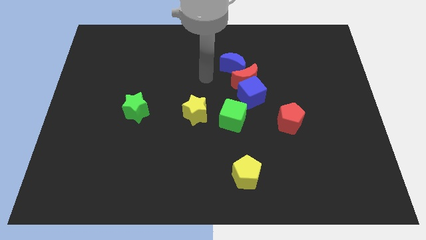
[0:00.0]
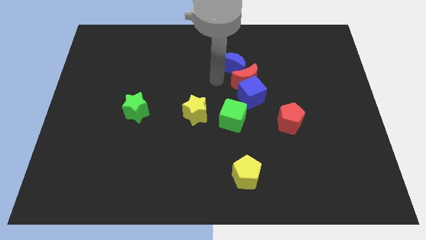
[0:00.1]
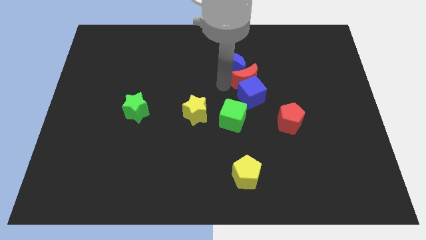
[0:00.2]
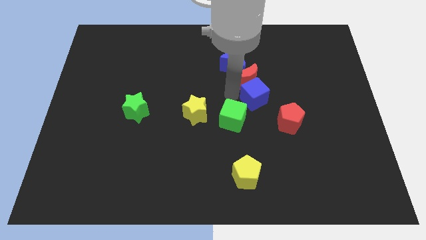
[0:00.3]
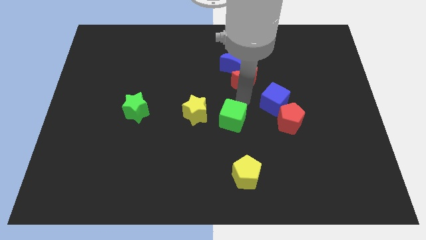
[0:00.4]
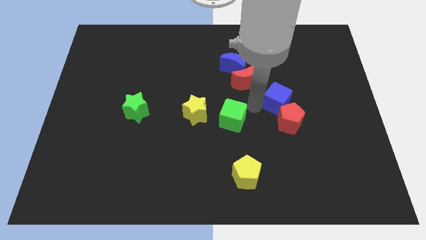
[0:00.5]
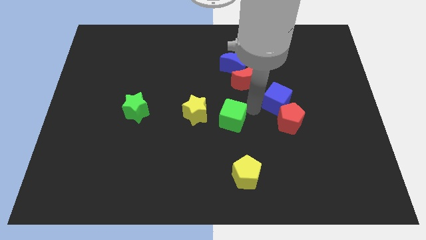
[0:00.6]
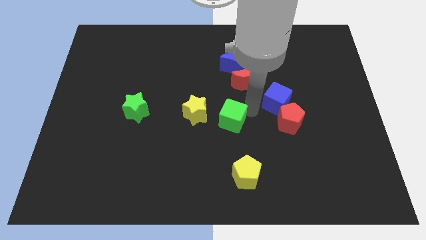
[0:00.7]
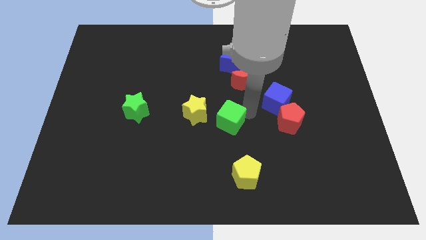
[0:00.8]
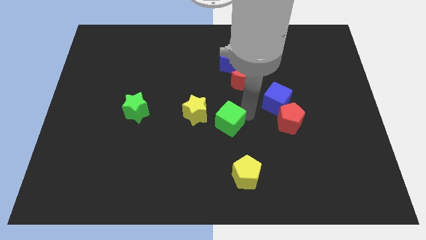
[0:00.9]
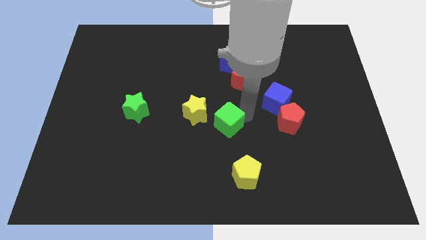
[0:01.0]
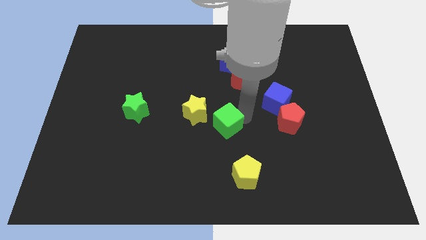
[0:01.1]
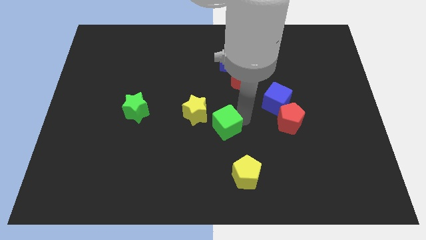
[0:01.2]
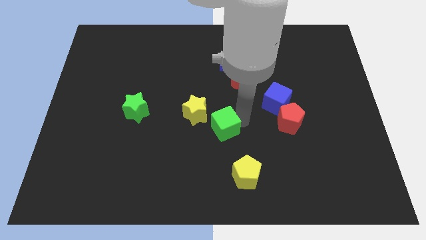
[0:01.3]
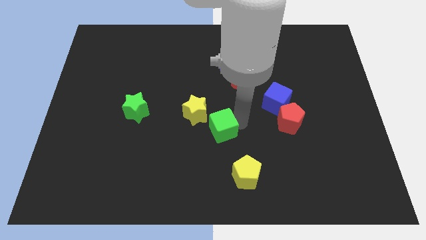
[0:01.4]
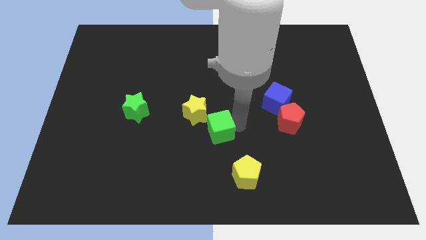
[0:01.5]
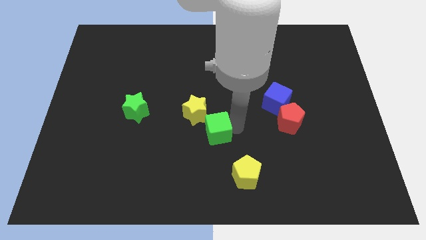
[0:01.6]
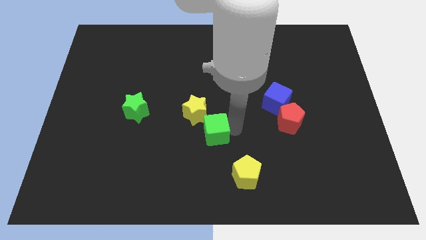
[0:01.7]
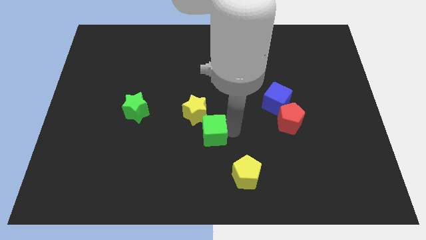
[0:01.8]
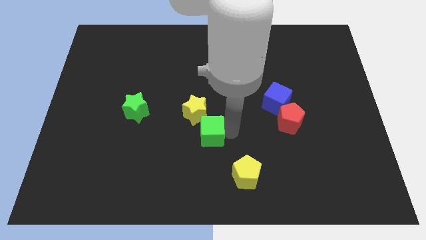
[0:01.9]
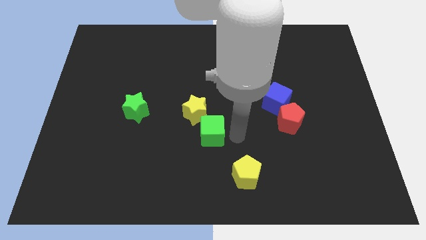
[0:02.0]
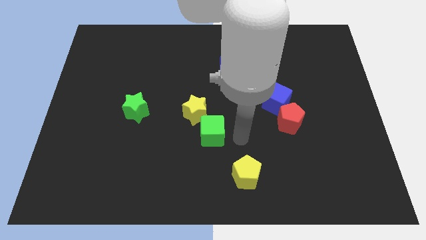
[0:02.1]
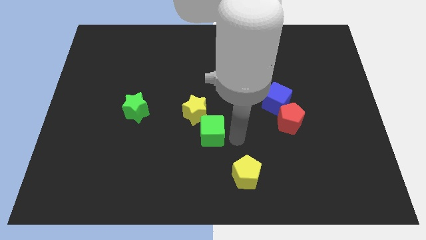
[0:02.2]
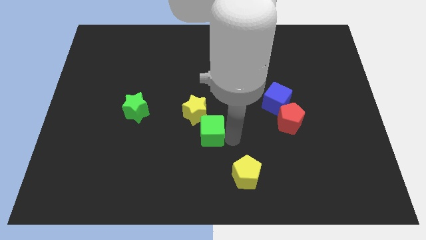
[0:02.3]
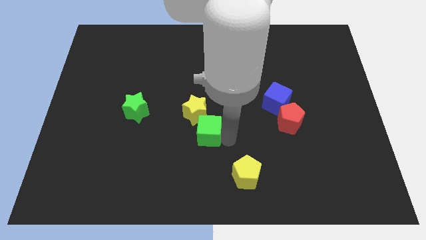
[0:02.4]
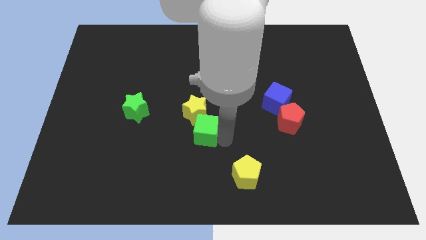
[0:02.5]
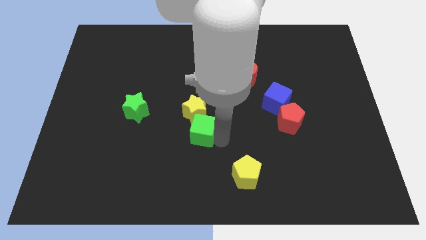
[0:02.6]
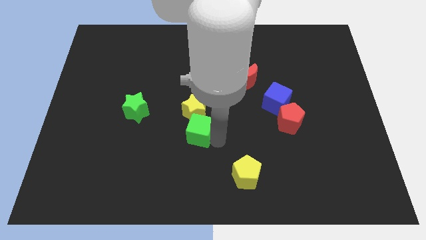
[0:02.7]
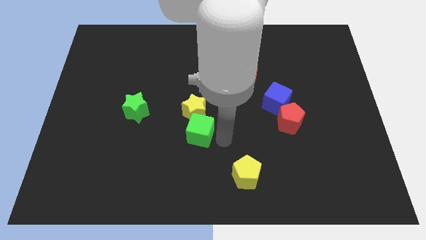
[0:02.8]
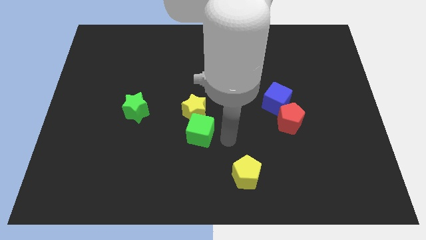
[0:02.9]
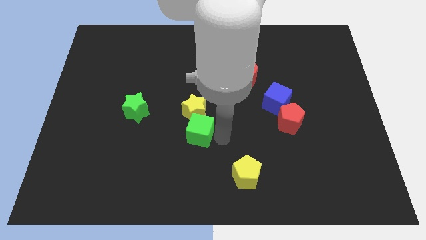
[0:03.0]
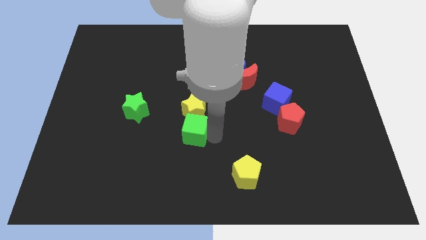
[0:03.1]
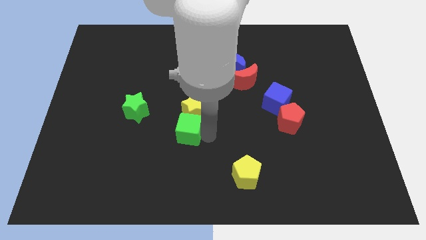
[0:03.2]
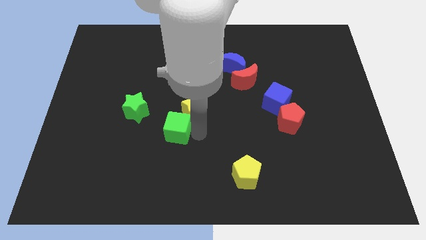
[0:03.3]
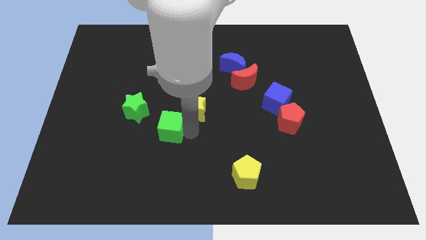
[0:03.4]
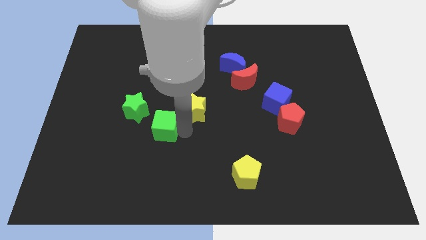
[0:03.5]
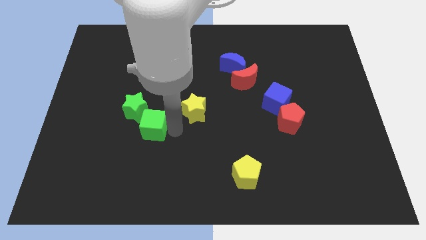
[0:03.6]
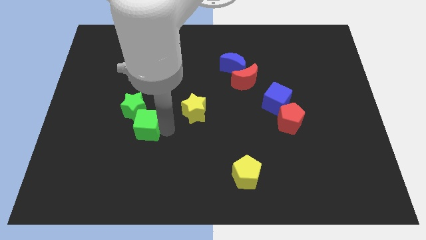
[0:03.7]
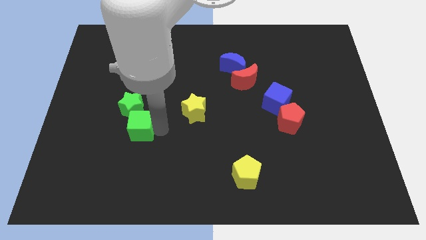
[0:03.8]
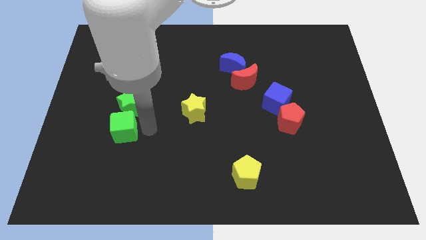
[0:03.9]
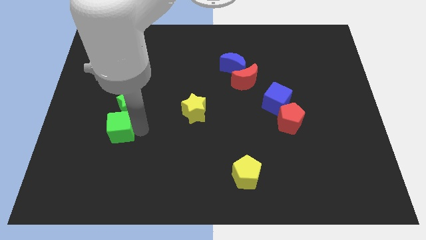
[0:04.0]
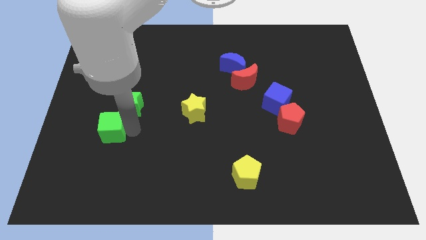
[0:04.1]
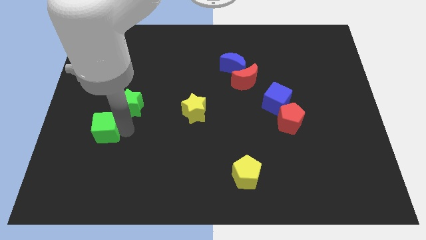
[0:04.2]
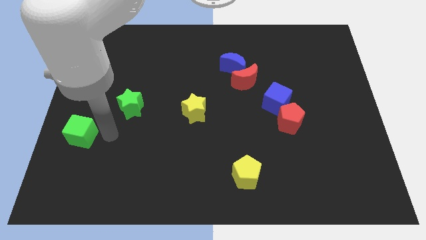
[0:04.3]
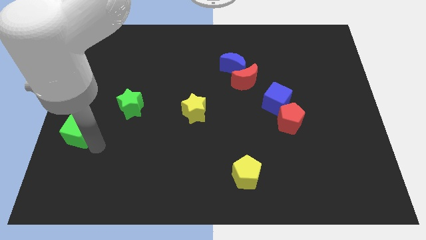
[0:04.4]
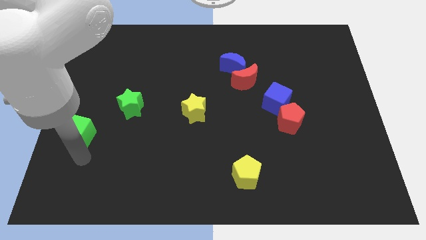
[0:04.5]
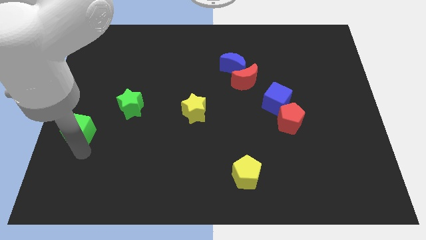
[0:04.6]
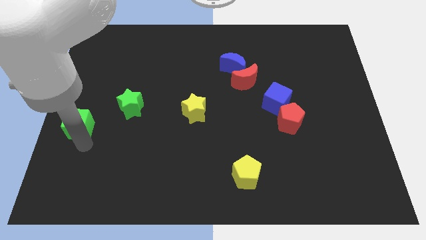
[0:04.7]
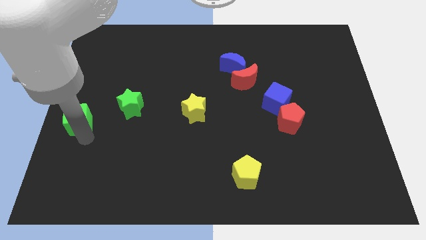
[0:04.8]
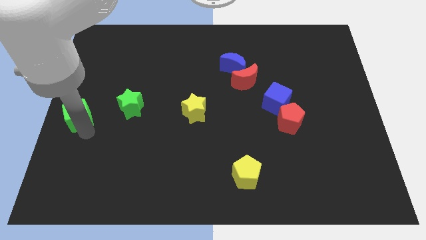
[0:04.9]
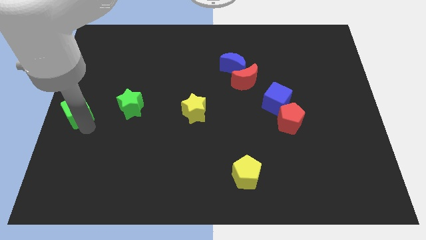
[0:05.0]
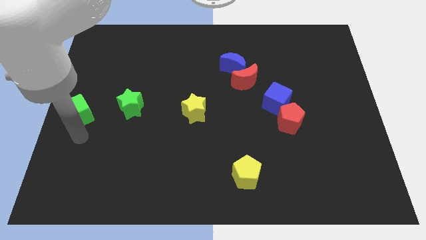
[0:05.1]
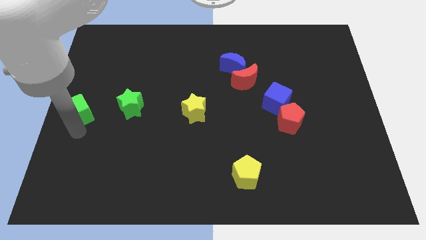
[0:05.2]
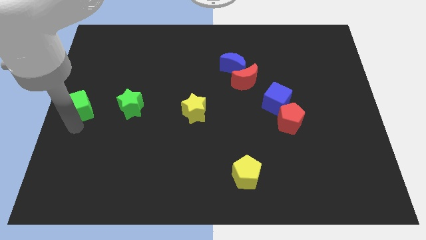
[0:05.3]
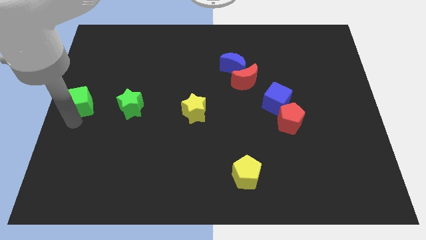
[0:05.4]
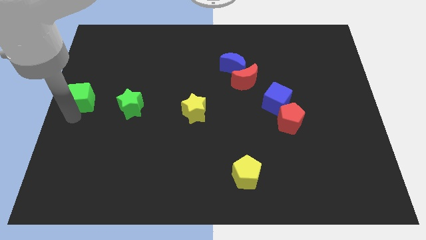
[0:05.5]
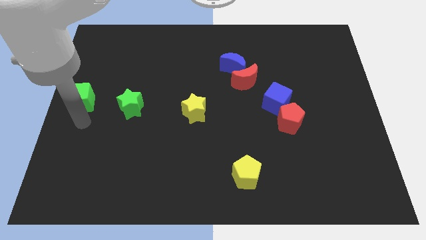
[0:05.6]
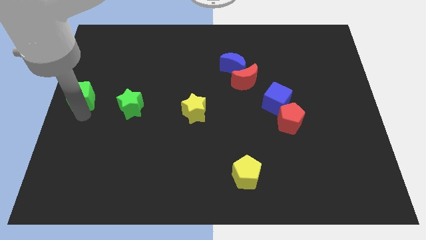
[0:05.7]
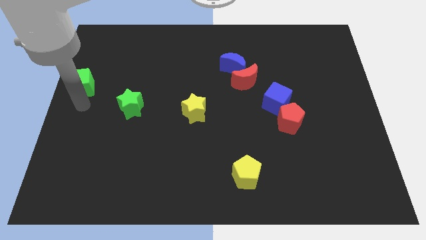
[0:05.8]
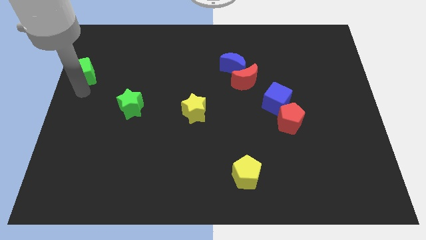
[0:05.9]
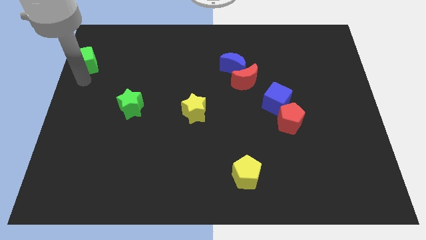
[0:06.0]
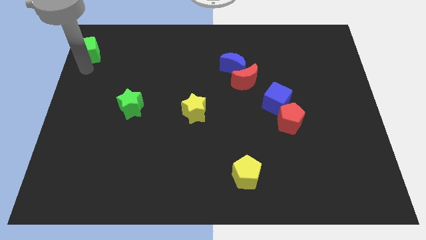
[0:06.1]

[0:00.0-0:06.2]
put the green cube to the upper left corner
